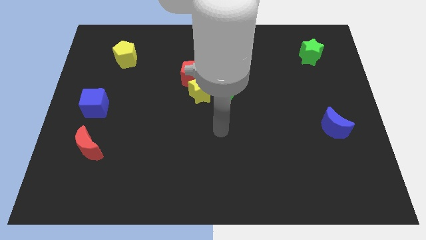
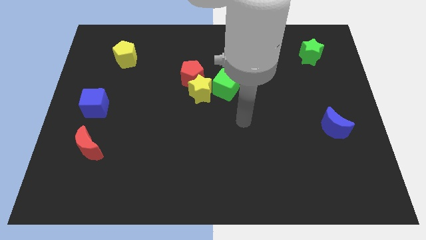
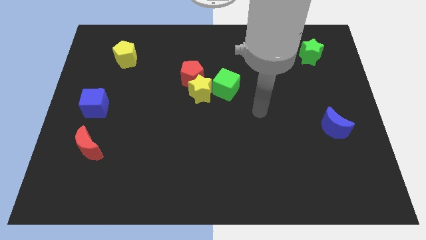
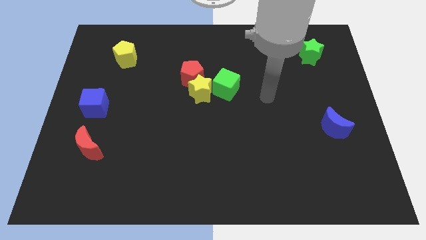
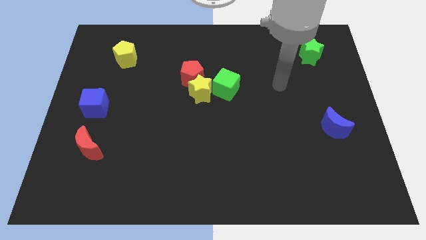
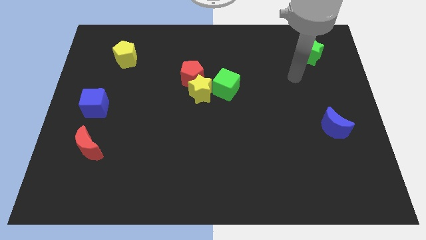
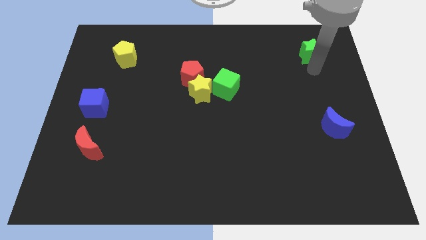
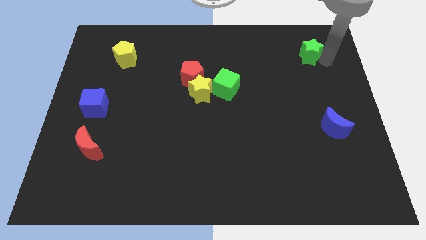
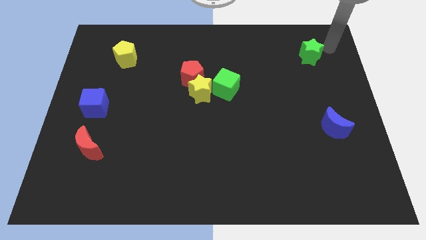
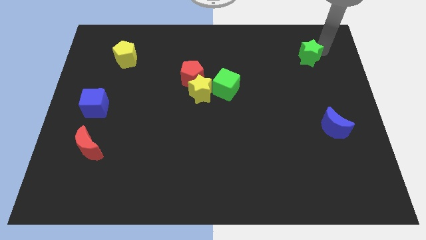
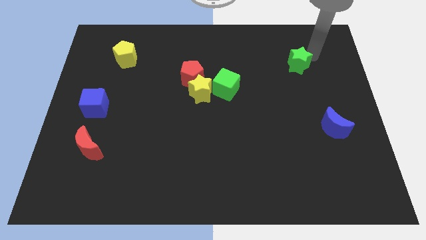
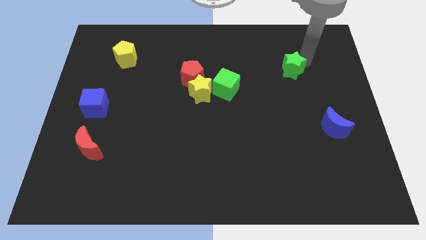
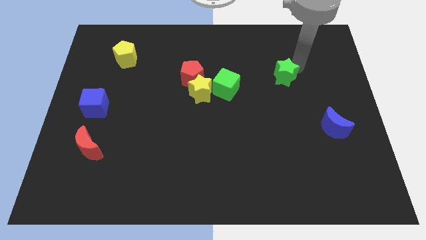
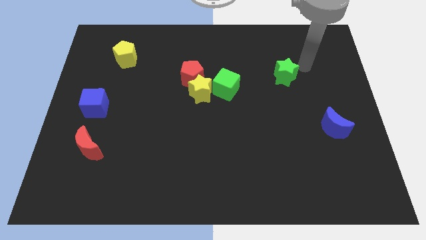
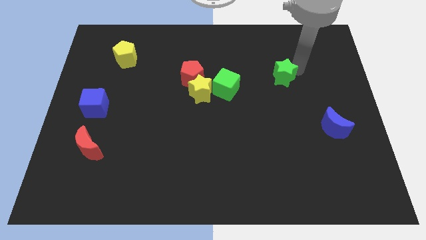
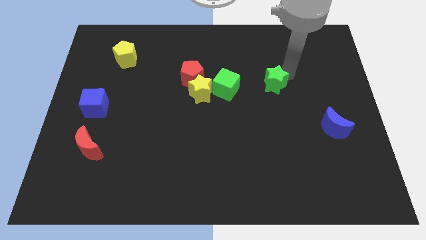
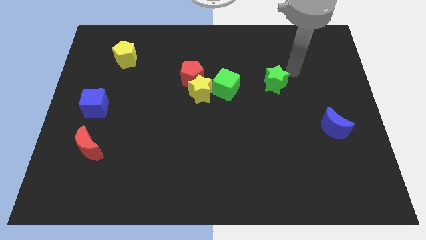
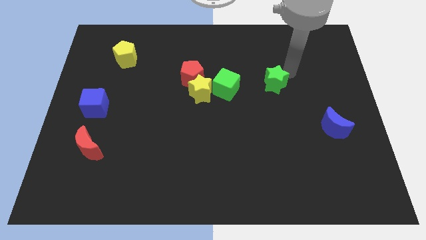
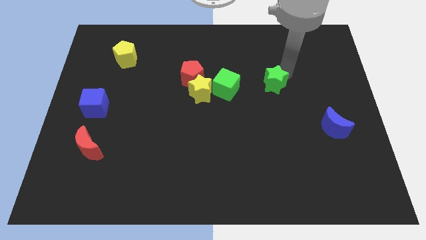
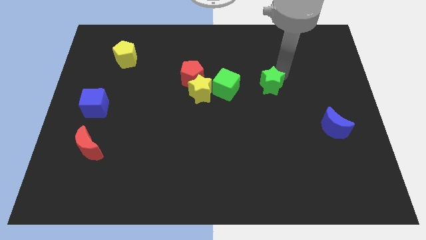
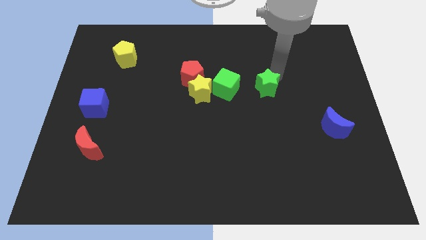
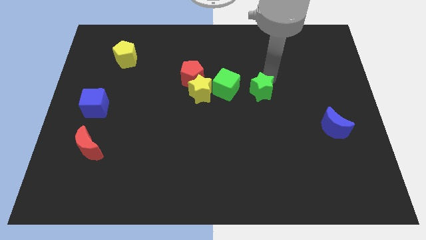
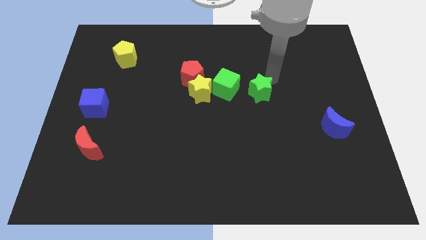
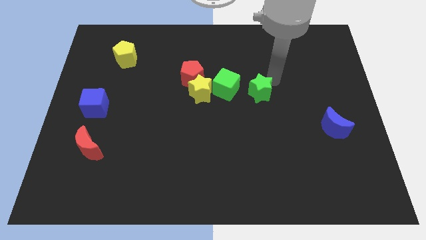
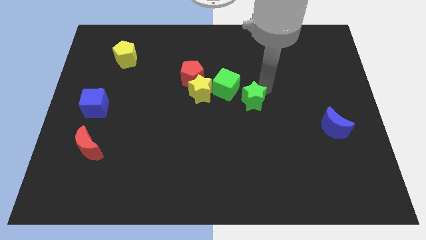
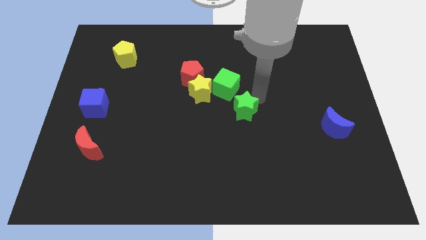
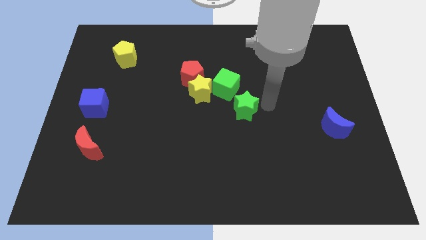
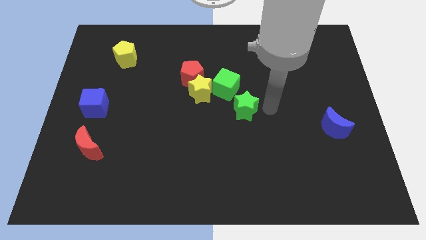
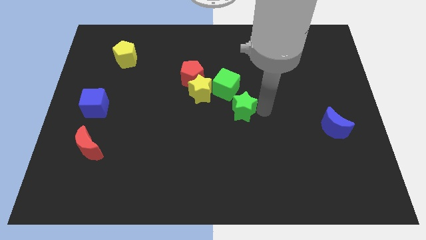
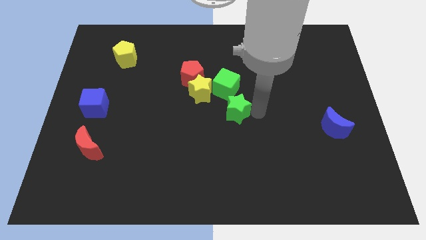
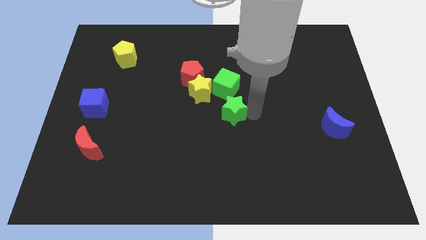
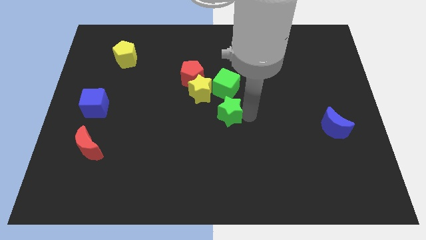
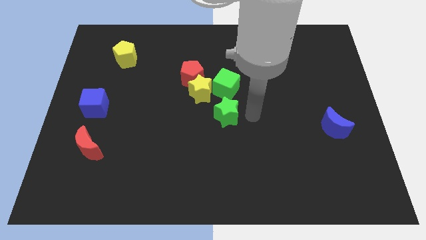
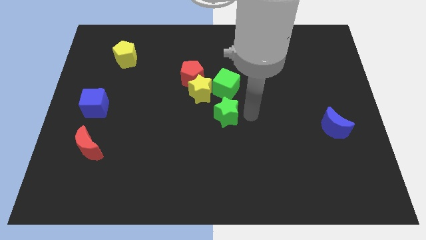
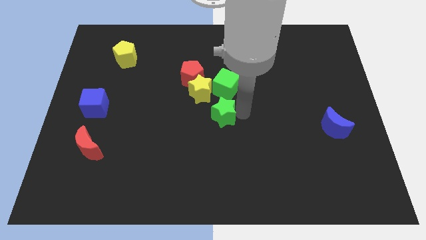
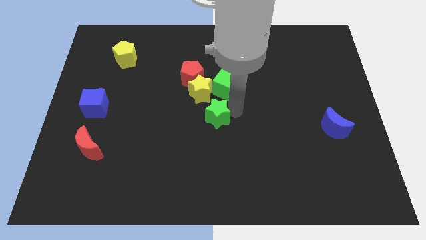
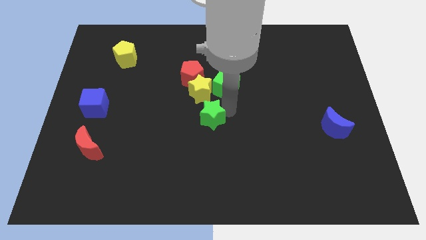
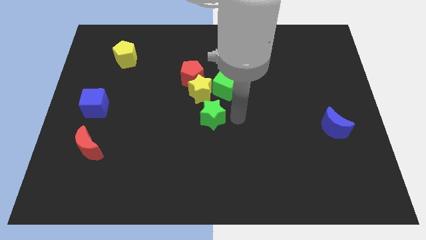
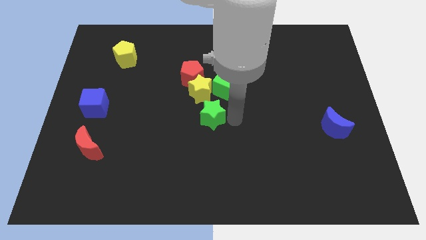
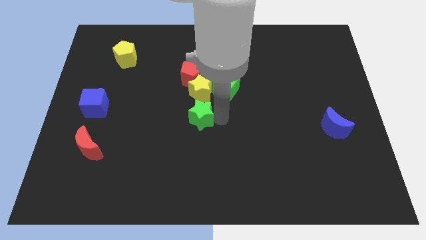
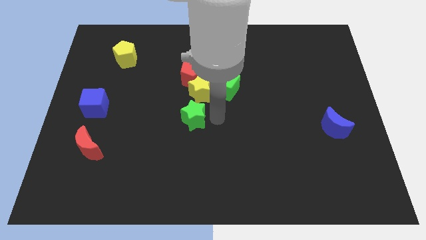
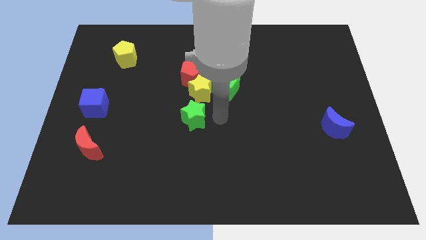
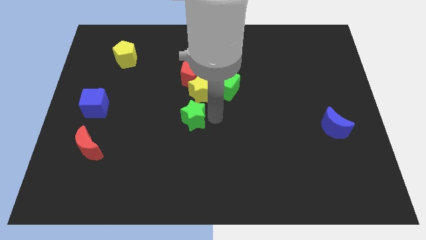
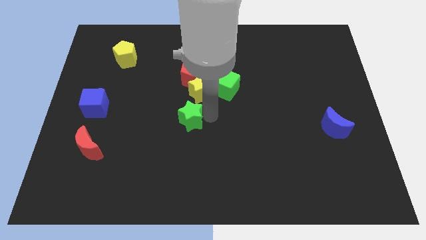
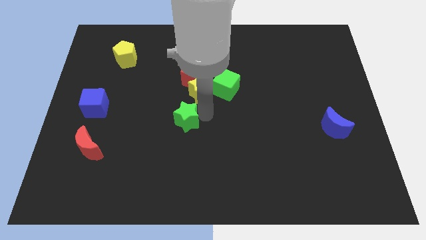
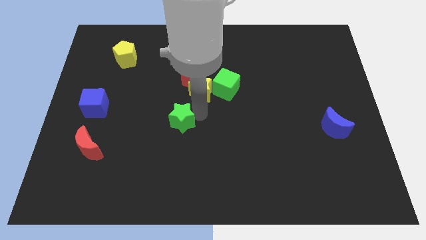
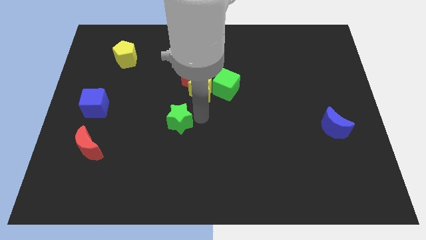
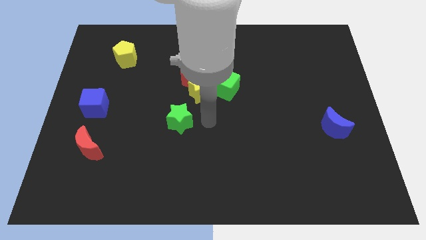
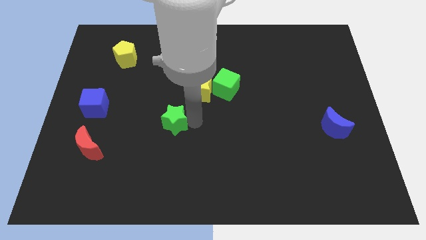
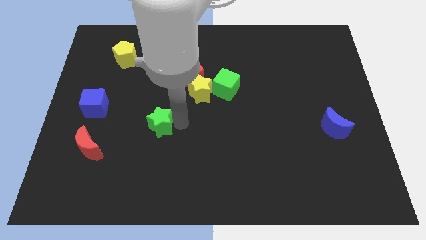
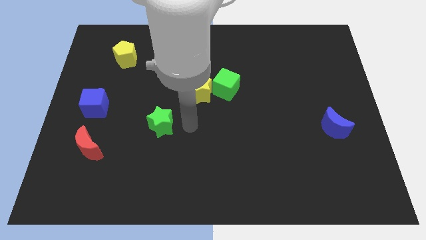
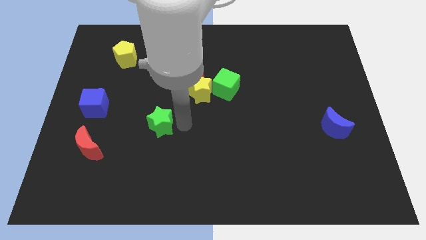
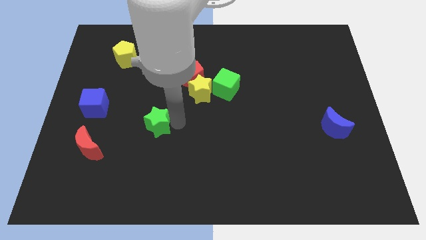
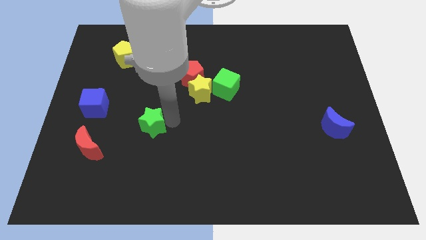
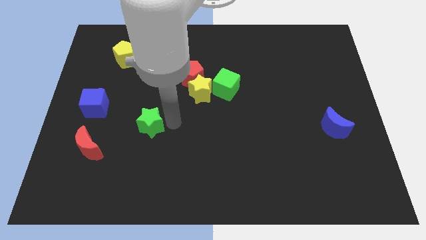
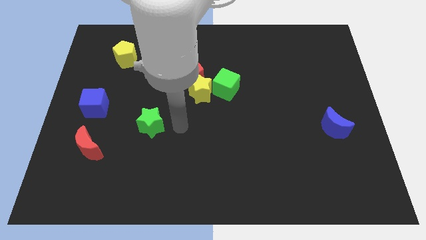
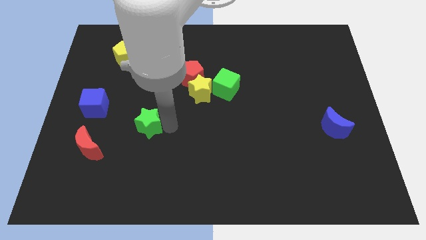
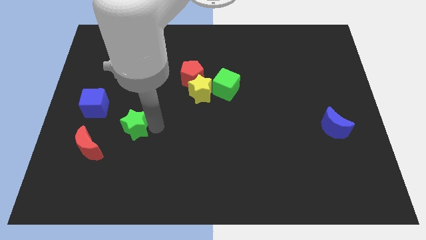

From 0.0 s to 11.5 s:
put the green star to the top right of the red moon

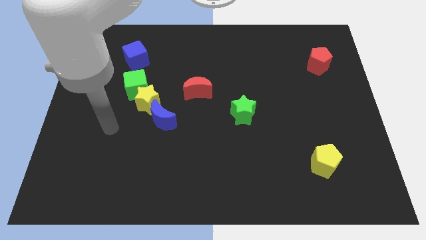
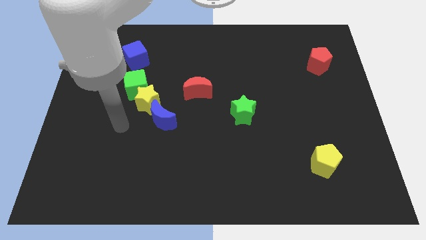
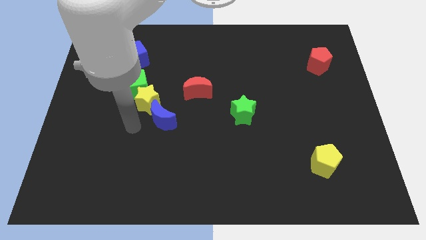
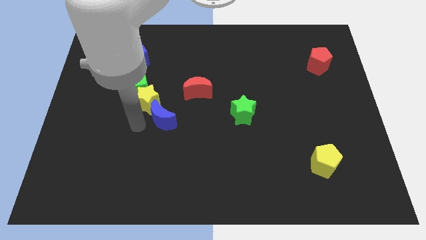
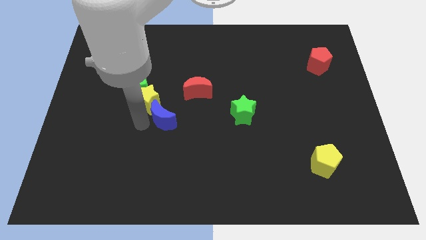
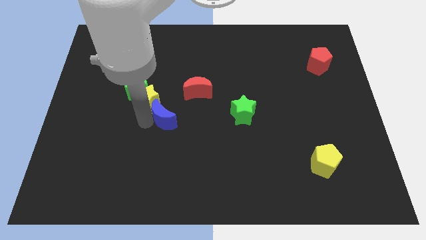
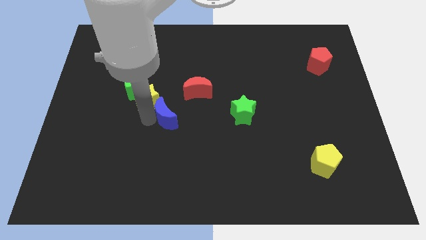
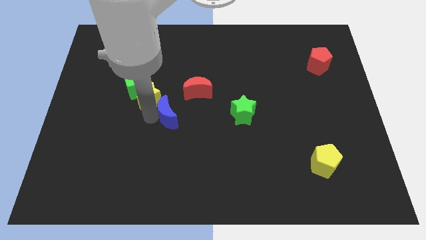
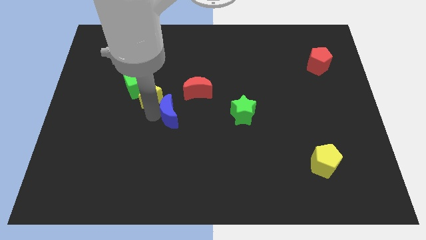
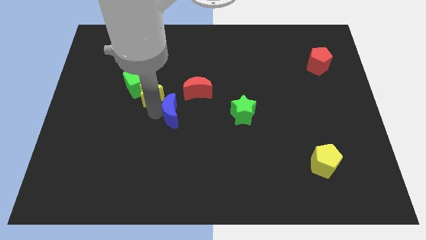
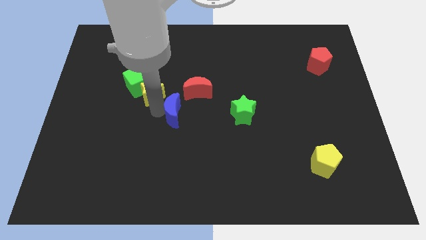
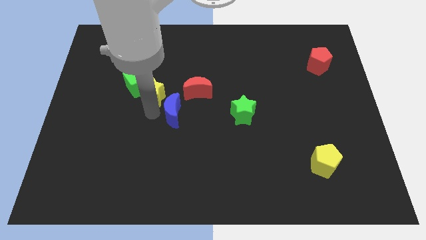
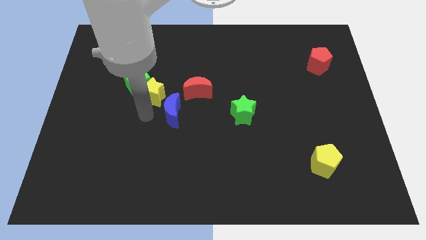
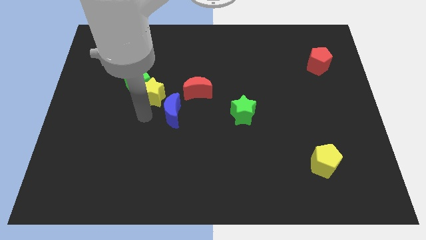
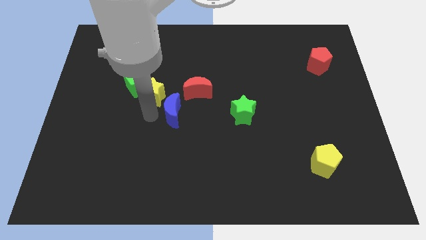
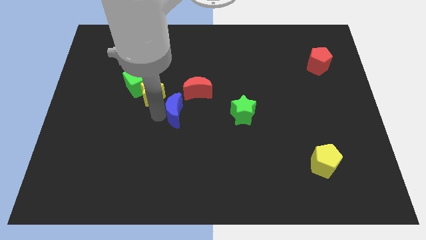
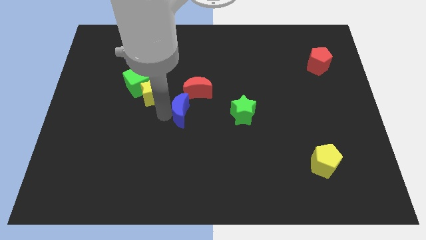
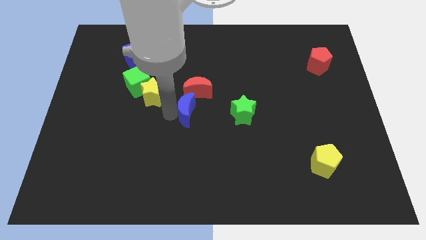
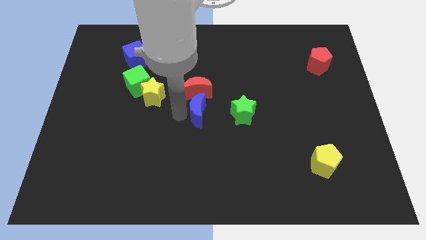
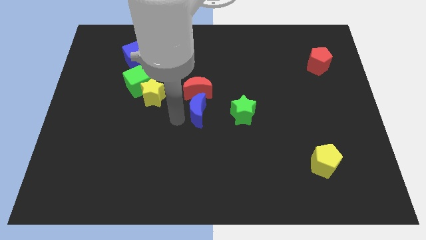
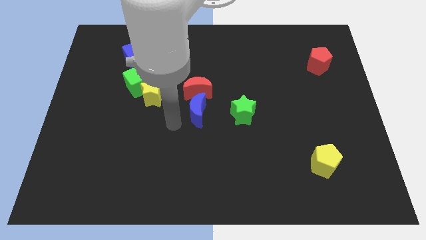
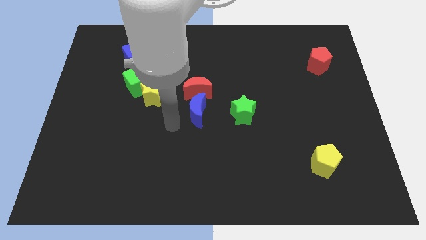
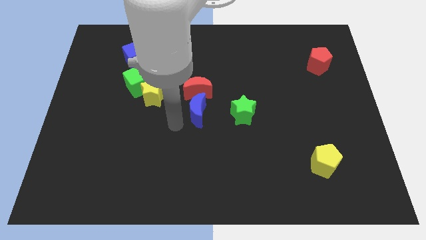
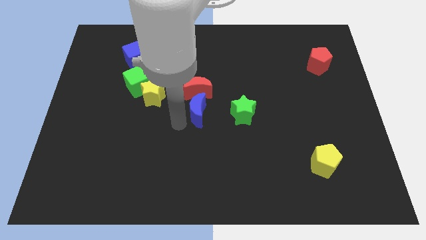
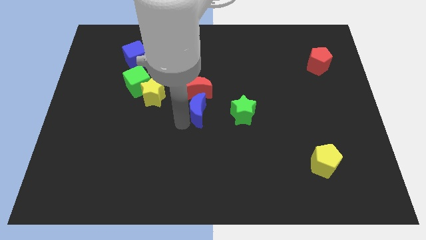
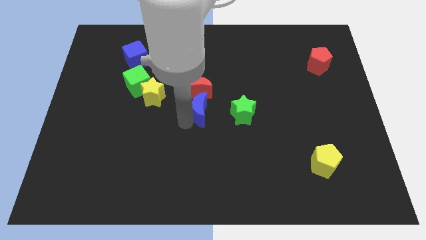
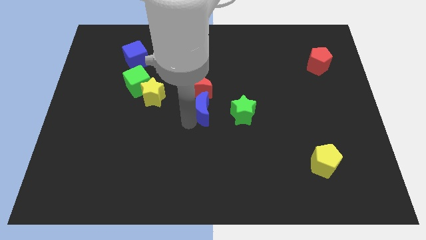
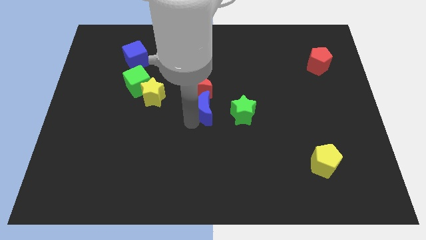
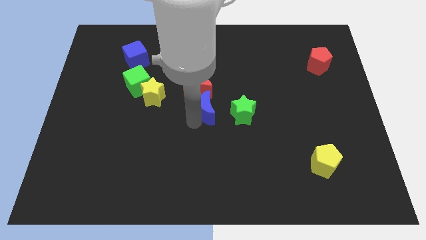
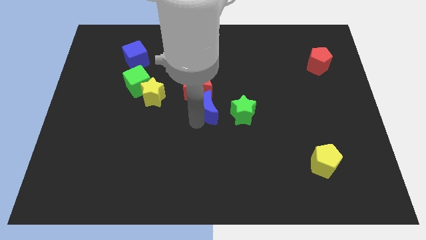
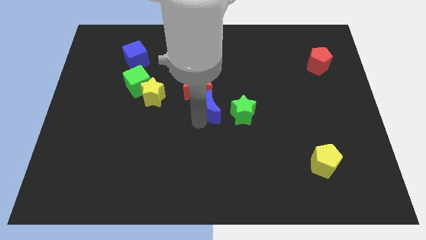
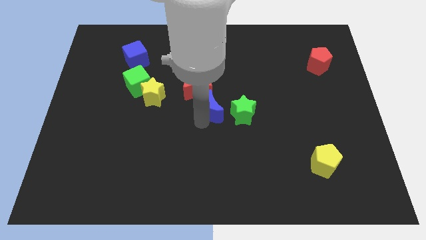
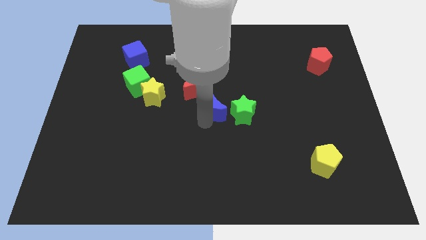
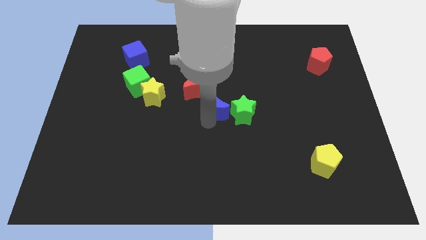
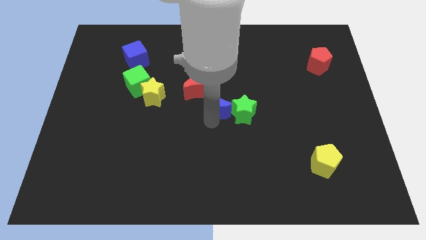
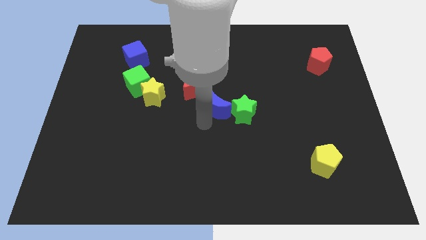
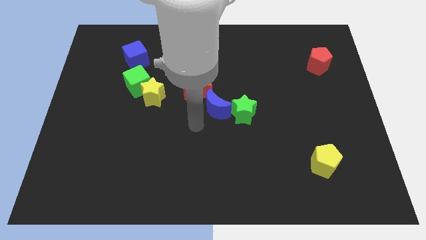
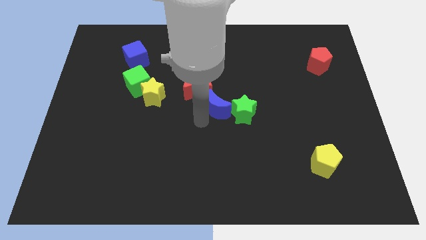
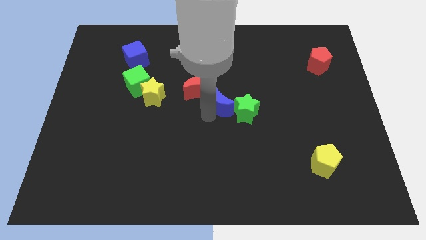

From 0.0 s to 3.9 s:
slide the blue moon right of the red moon
